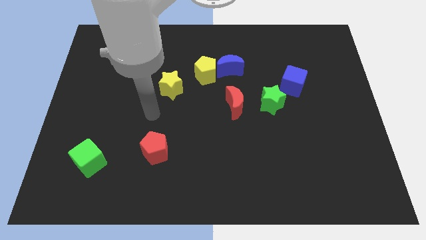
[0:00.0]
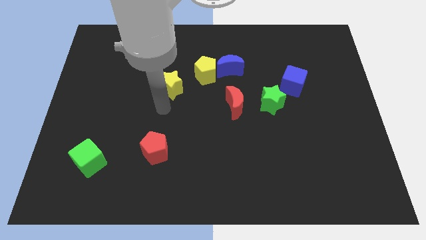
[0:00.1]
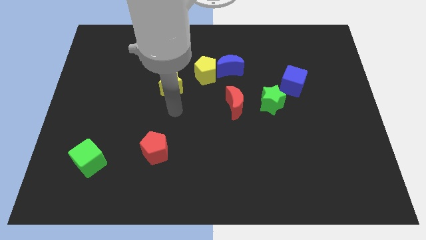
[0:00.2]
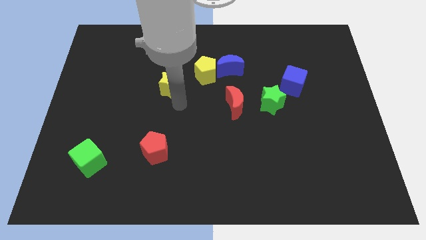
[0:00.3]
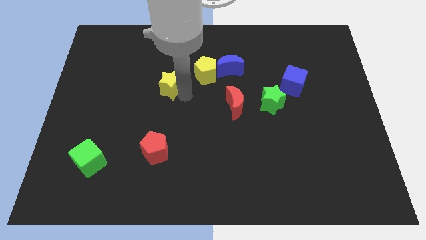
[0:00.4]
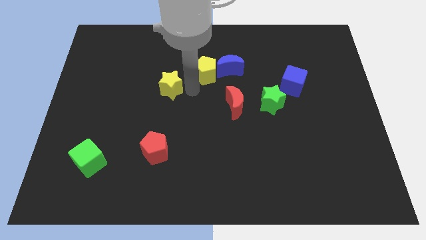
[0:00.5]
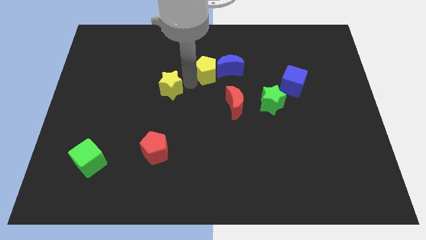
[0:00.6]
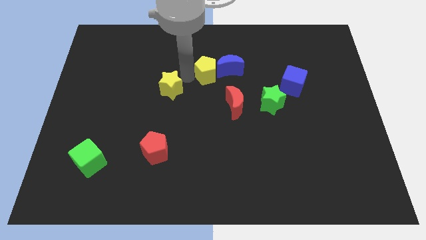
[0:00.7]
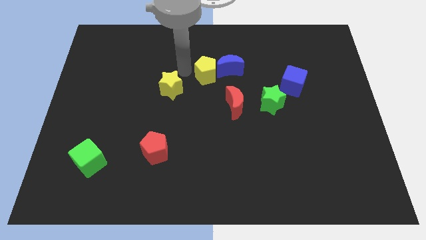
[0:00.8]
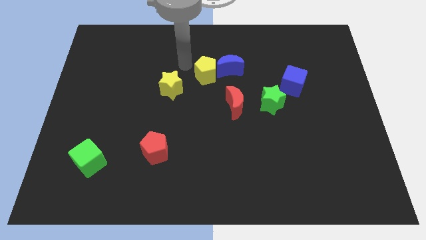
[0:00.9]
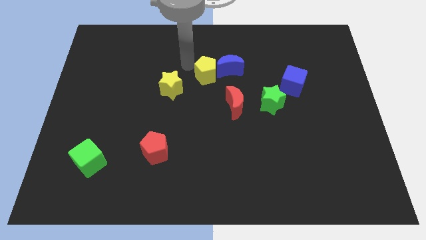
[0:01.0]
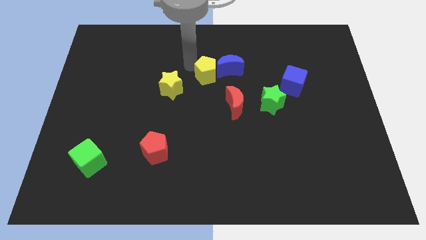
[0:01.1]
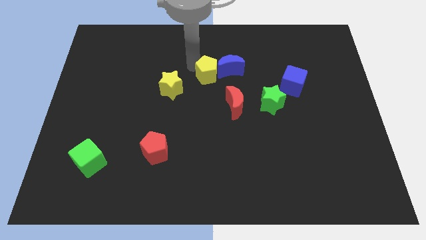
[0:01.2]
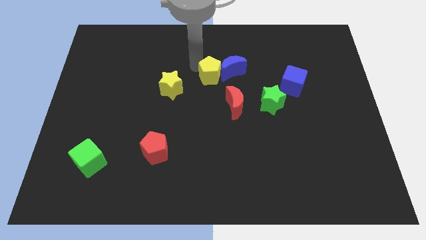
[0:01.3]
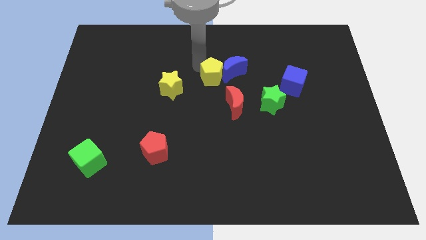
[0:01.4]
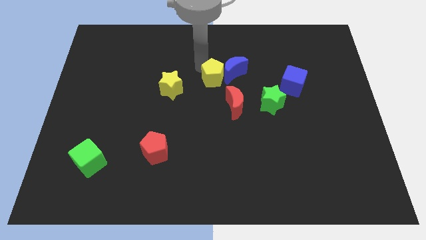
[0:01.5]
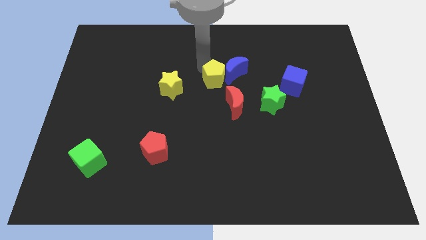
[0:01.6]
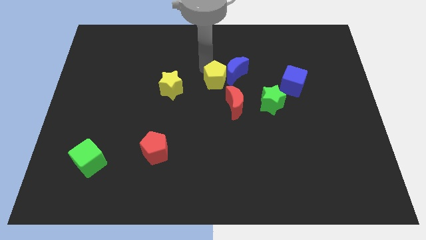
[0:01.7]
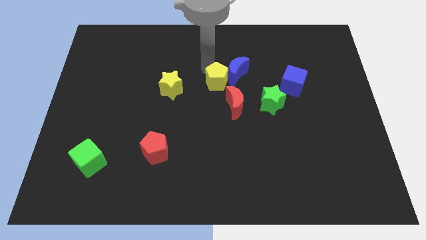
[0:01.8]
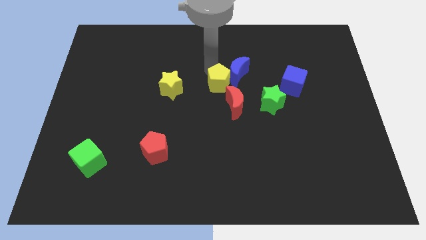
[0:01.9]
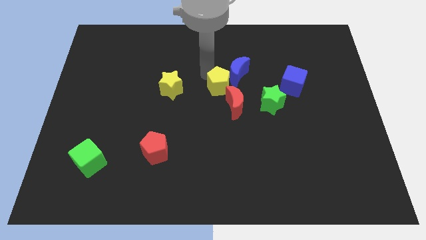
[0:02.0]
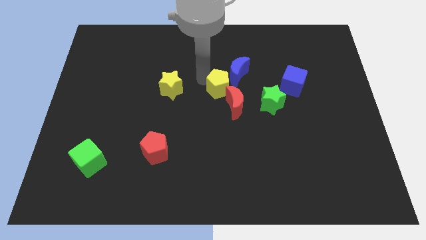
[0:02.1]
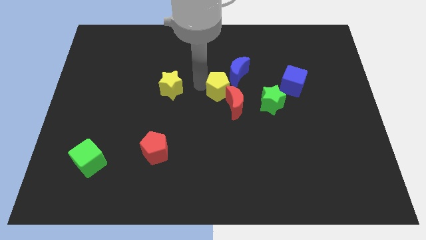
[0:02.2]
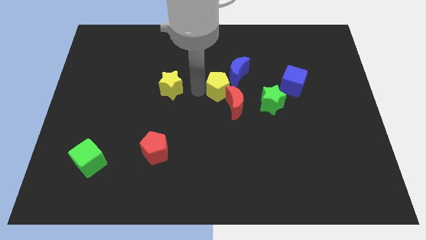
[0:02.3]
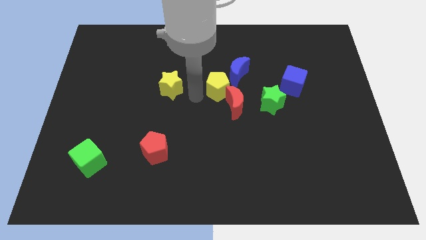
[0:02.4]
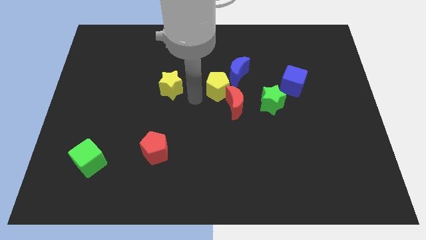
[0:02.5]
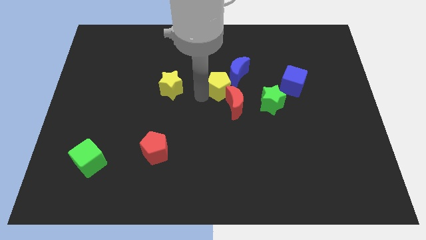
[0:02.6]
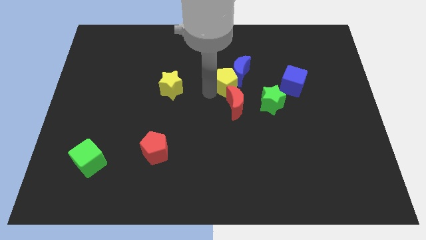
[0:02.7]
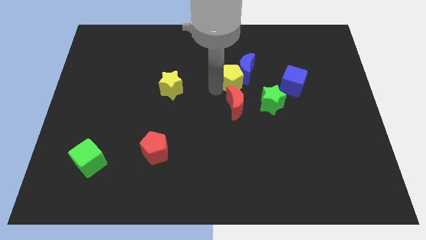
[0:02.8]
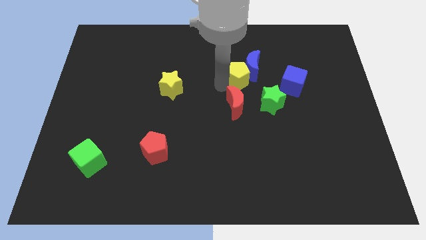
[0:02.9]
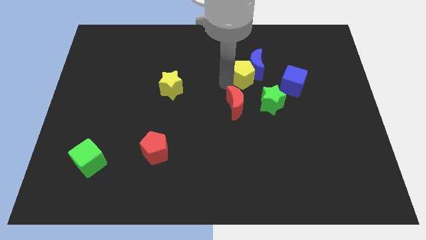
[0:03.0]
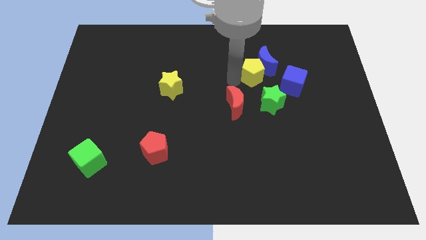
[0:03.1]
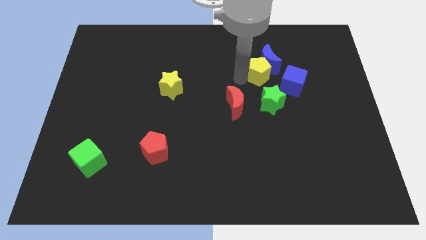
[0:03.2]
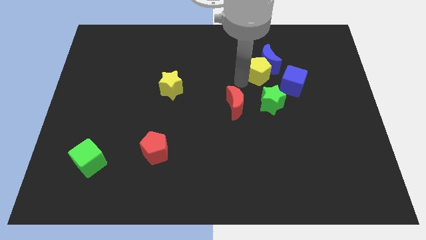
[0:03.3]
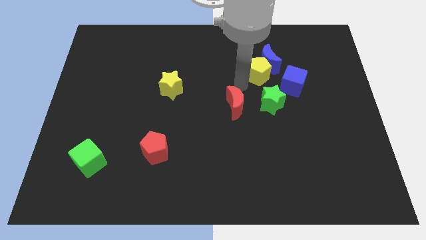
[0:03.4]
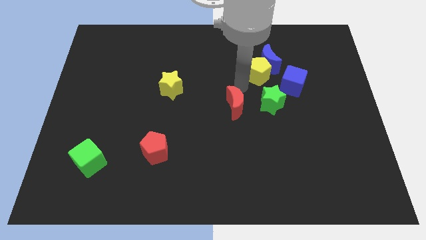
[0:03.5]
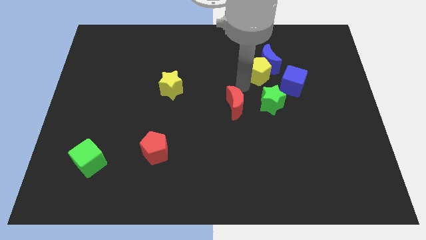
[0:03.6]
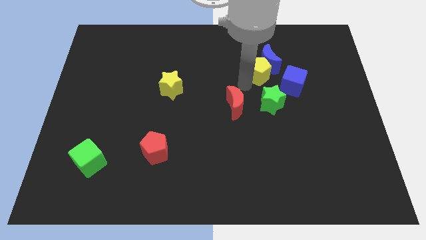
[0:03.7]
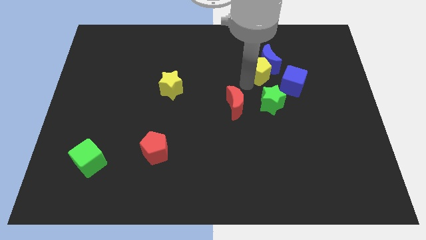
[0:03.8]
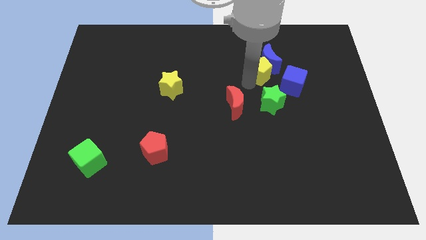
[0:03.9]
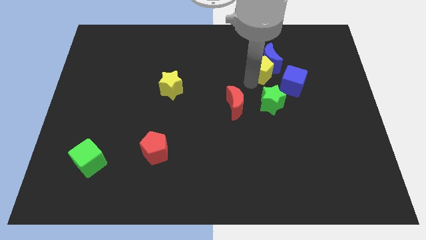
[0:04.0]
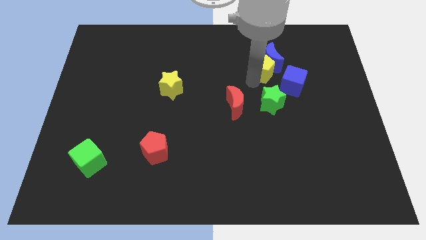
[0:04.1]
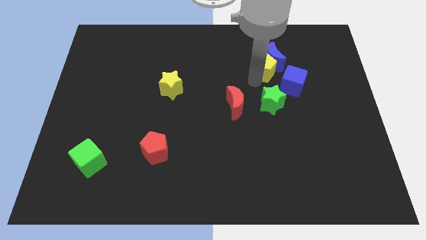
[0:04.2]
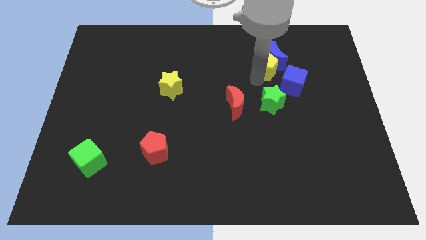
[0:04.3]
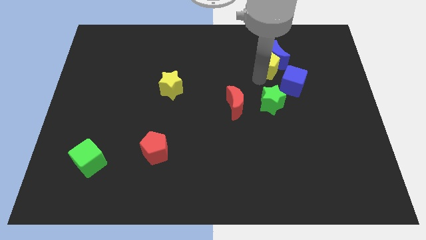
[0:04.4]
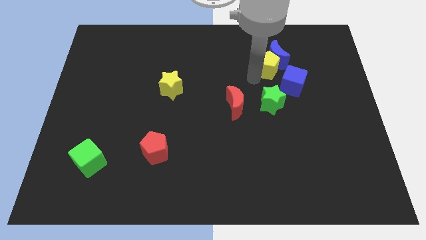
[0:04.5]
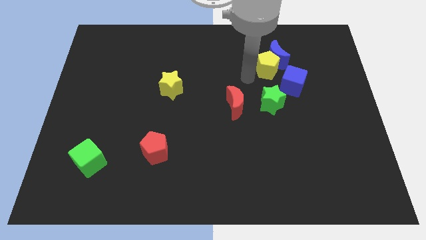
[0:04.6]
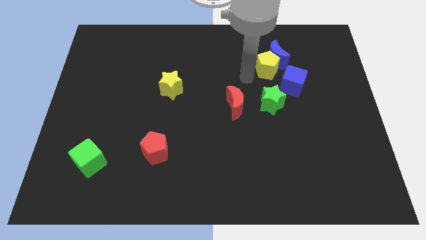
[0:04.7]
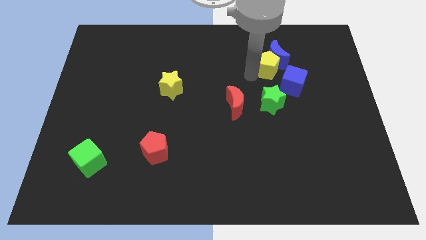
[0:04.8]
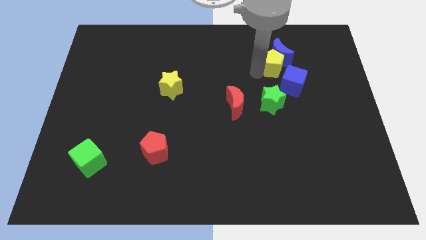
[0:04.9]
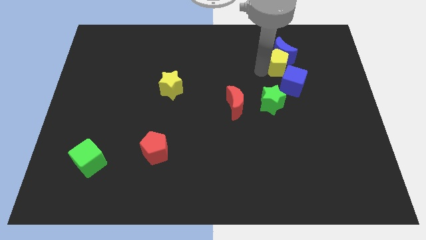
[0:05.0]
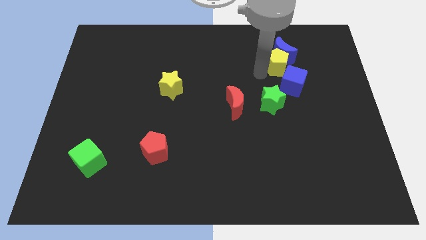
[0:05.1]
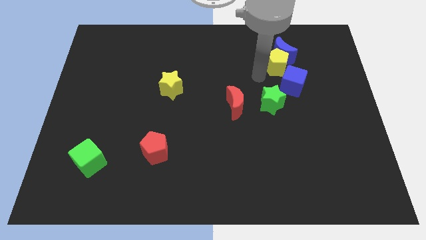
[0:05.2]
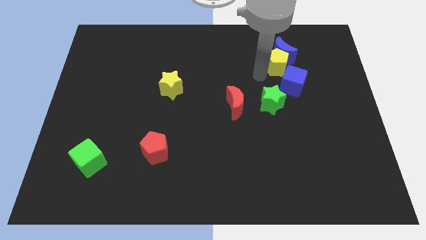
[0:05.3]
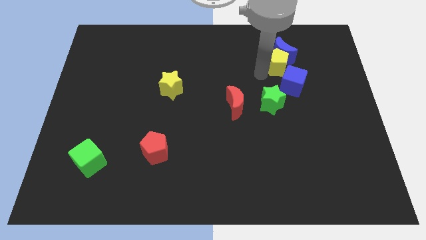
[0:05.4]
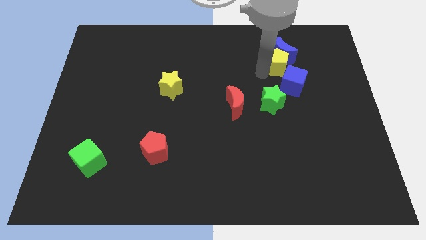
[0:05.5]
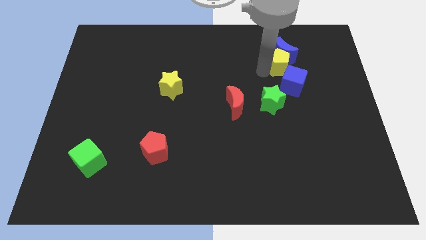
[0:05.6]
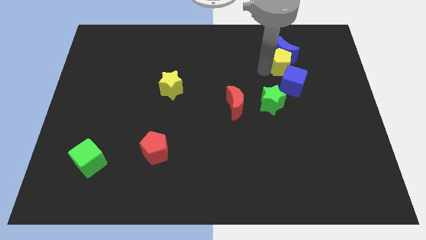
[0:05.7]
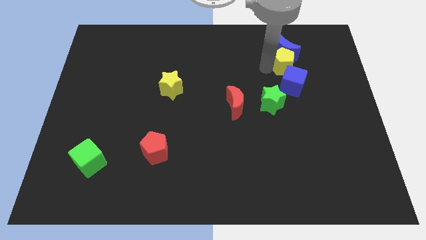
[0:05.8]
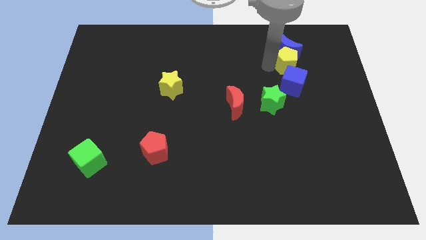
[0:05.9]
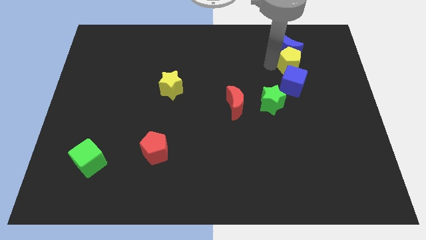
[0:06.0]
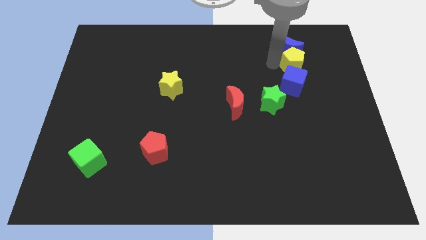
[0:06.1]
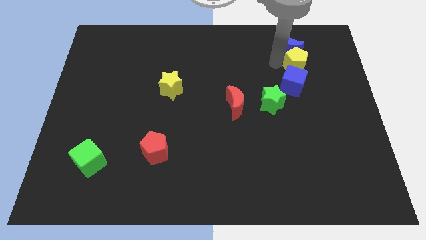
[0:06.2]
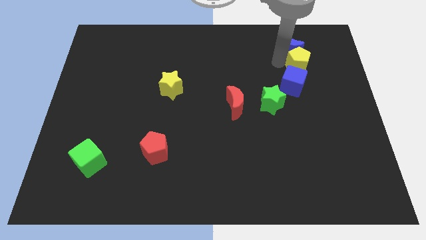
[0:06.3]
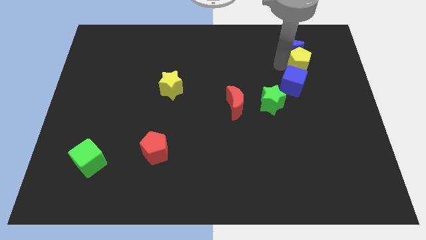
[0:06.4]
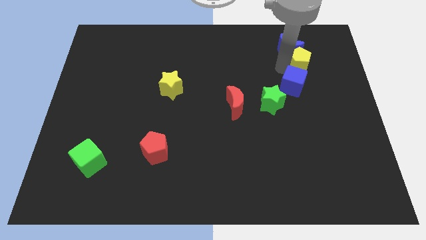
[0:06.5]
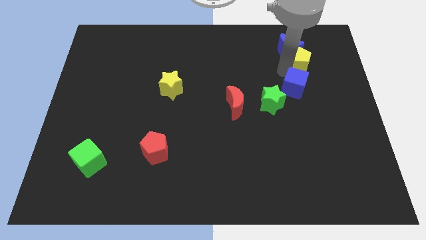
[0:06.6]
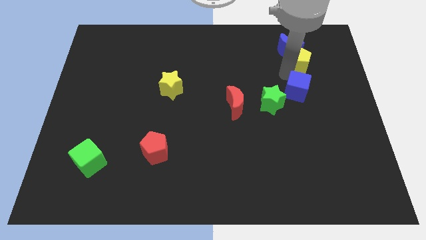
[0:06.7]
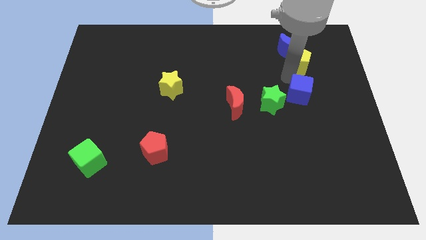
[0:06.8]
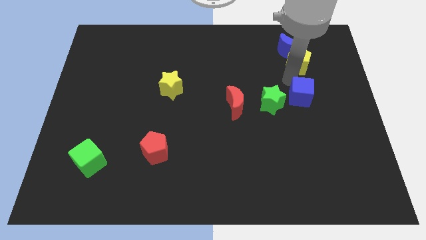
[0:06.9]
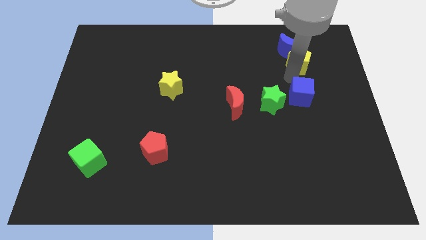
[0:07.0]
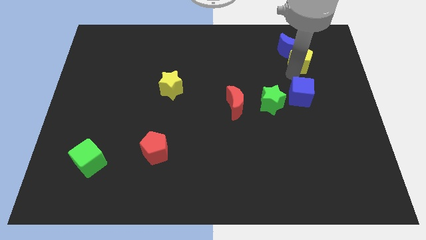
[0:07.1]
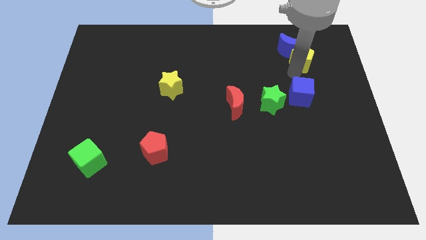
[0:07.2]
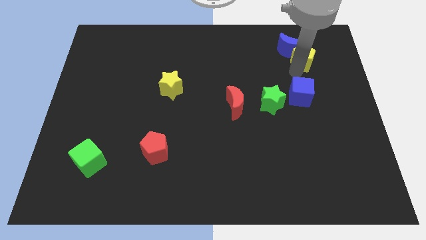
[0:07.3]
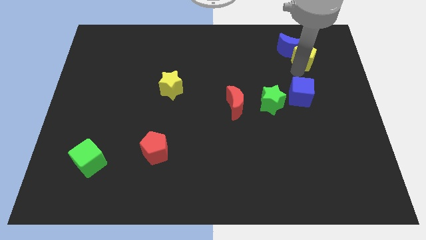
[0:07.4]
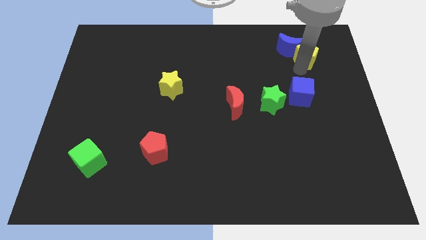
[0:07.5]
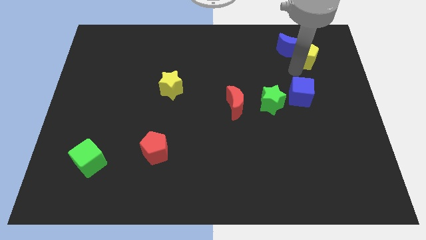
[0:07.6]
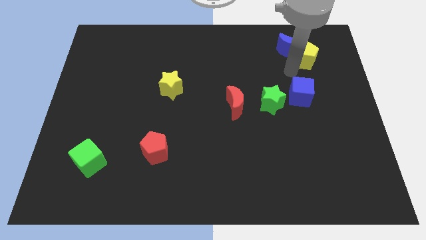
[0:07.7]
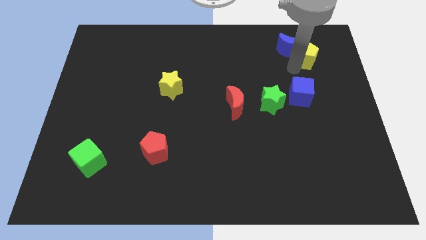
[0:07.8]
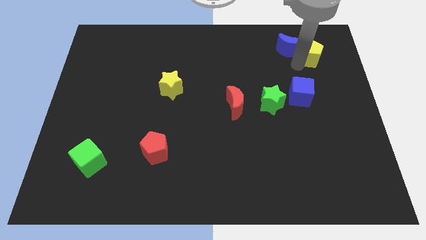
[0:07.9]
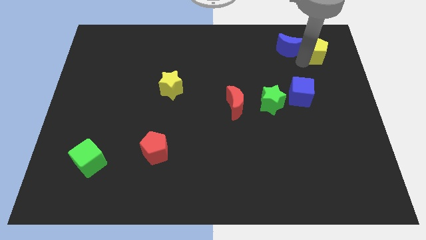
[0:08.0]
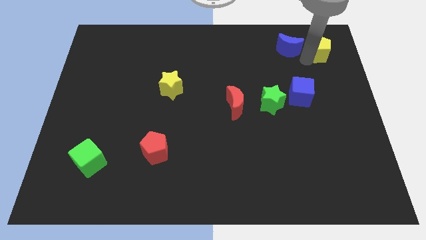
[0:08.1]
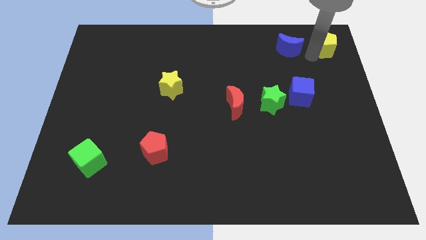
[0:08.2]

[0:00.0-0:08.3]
slide the yellow pentagon to the top right of the board
